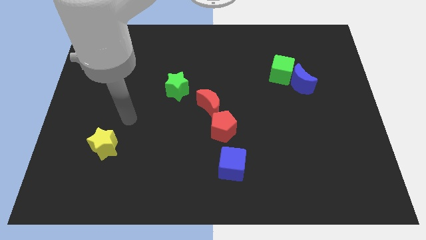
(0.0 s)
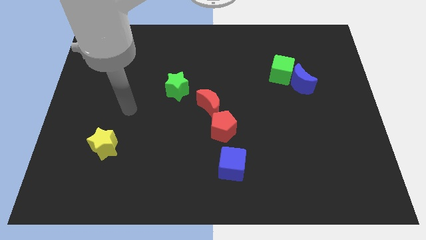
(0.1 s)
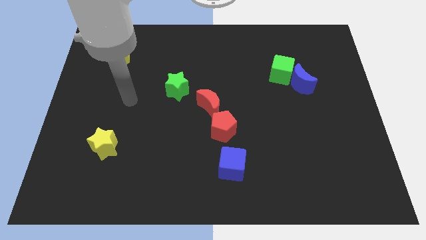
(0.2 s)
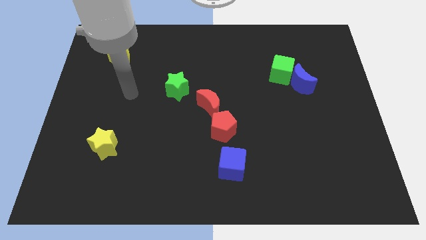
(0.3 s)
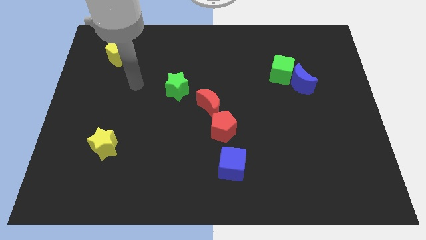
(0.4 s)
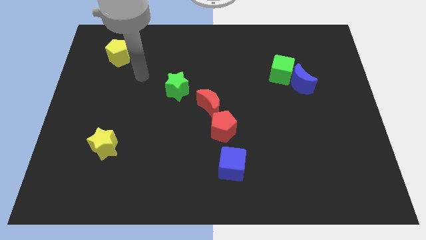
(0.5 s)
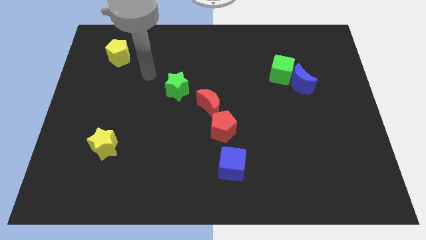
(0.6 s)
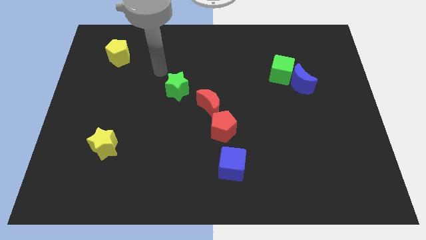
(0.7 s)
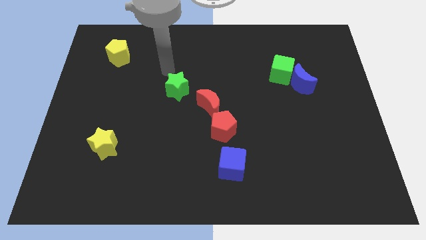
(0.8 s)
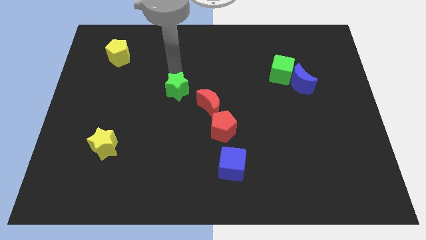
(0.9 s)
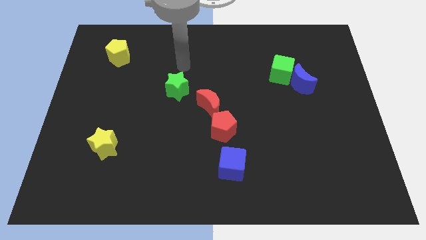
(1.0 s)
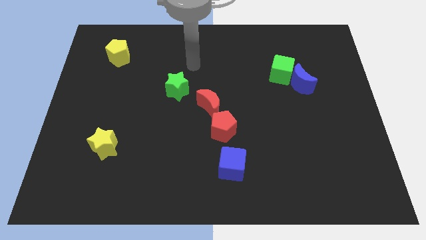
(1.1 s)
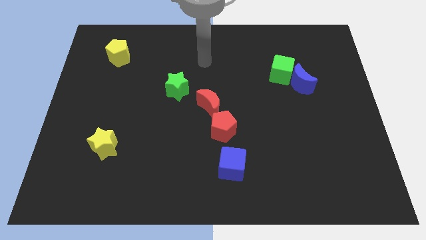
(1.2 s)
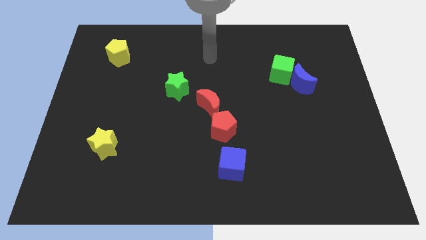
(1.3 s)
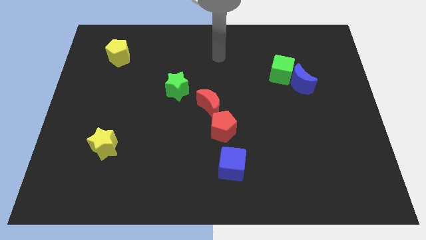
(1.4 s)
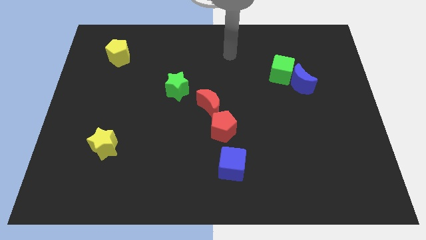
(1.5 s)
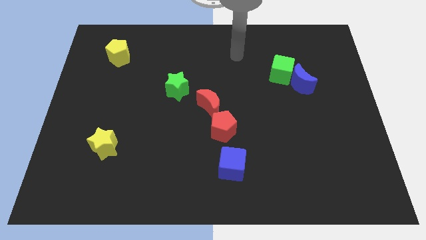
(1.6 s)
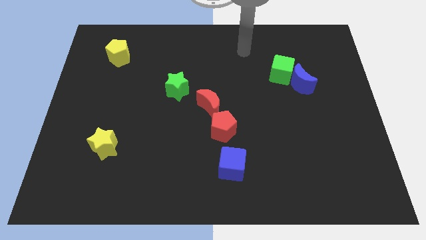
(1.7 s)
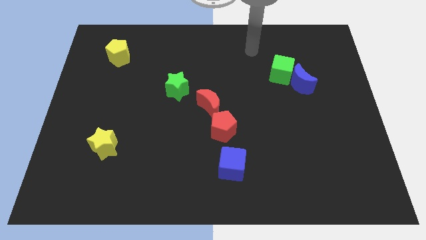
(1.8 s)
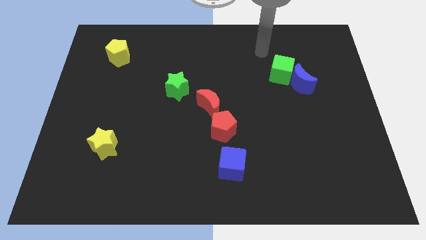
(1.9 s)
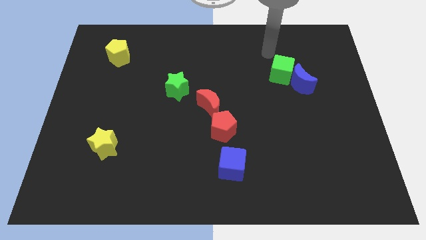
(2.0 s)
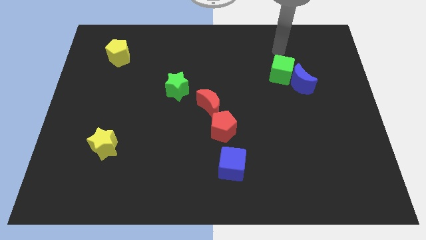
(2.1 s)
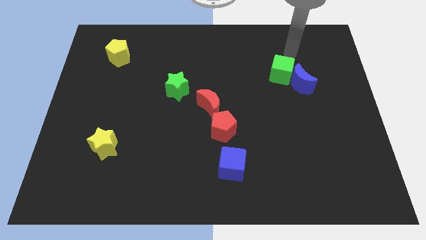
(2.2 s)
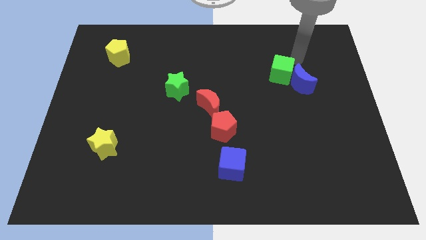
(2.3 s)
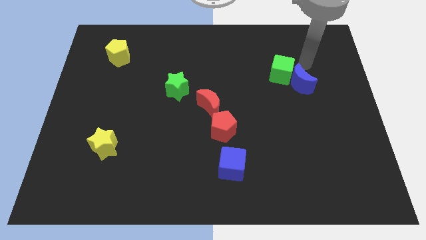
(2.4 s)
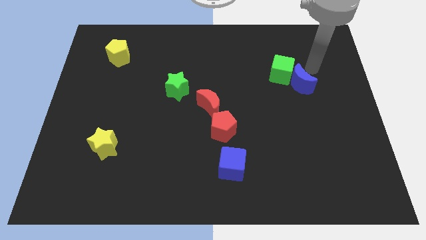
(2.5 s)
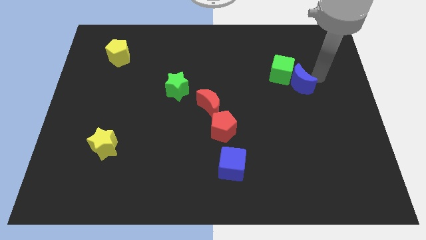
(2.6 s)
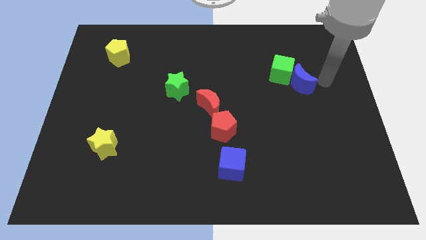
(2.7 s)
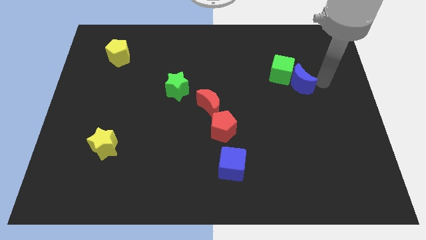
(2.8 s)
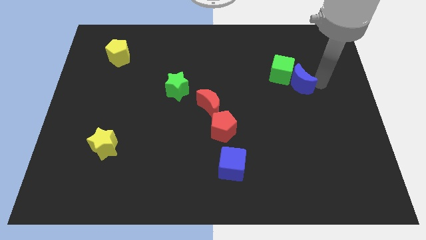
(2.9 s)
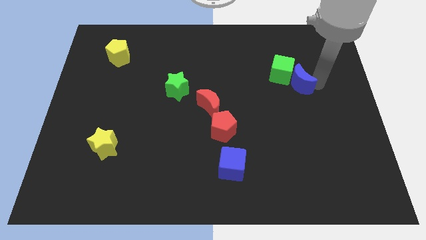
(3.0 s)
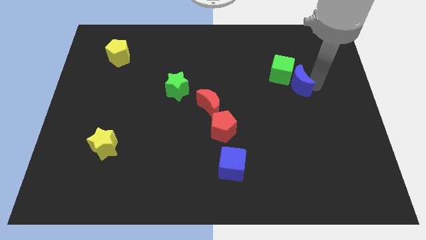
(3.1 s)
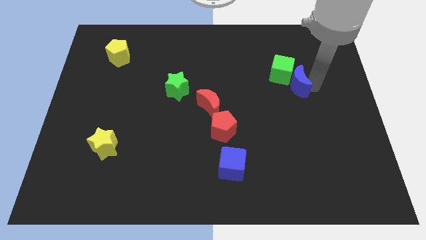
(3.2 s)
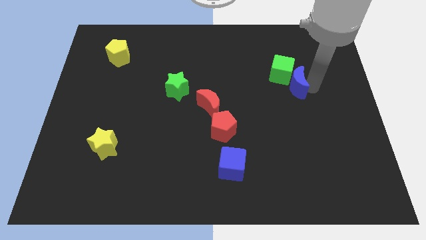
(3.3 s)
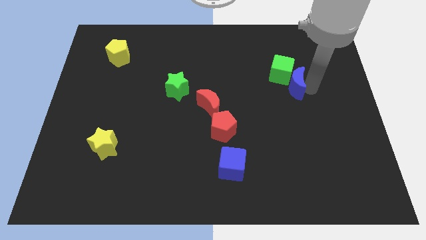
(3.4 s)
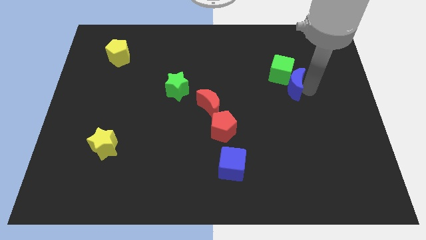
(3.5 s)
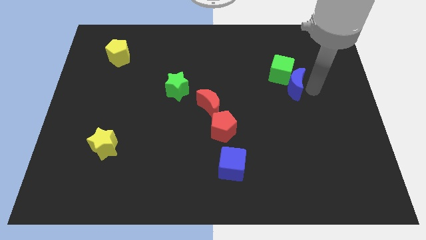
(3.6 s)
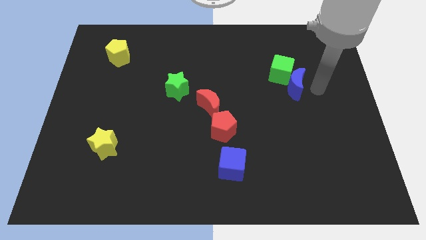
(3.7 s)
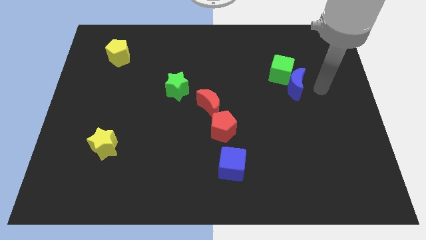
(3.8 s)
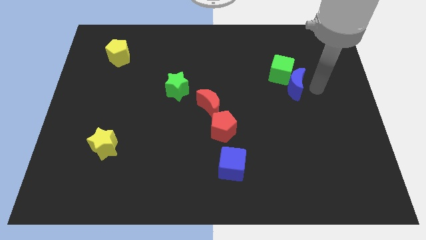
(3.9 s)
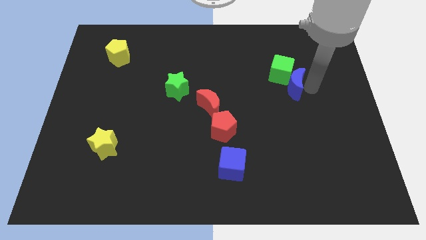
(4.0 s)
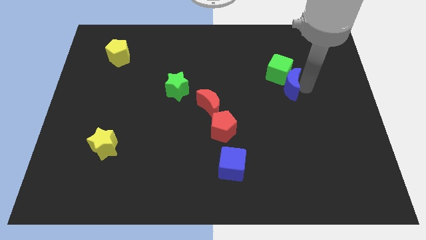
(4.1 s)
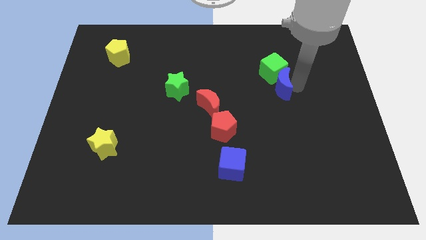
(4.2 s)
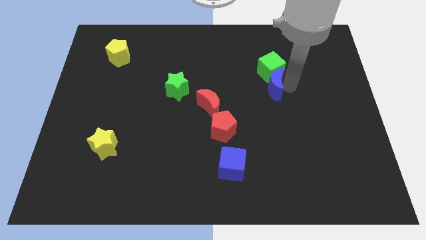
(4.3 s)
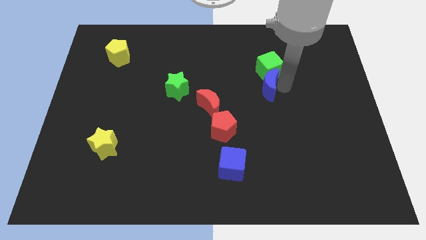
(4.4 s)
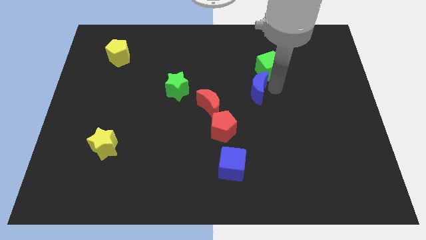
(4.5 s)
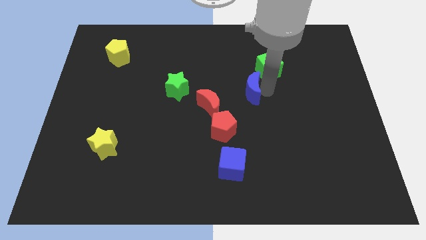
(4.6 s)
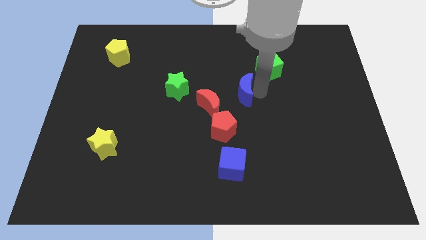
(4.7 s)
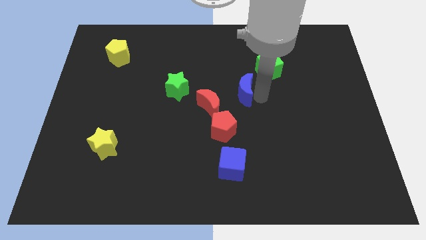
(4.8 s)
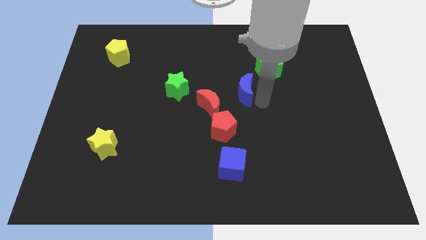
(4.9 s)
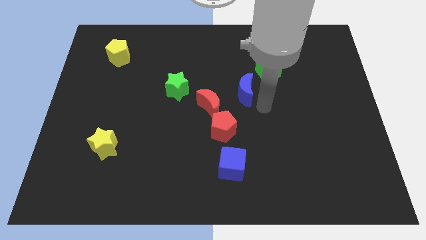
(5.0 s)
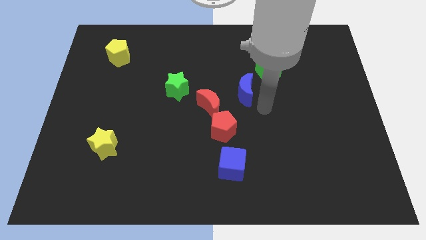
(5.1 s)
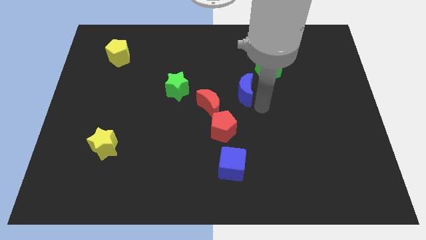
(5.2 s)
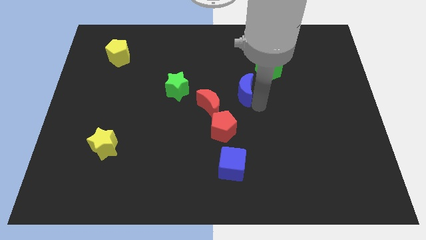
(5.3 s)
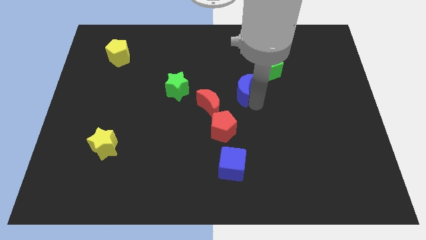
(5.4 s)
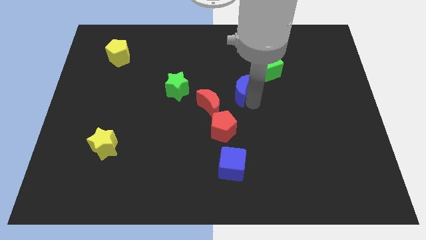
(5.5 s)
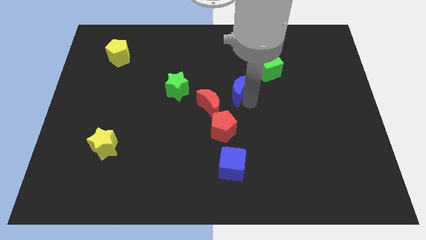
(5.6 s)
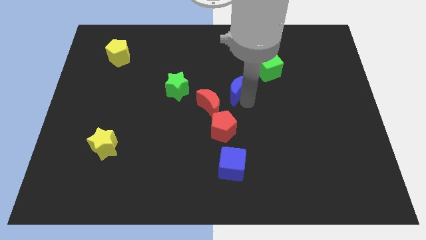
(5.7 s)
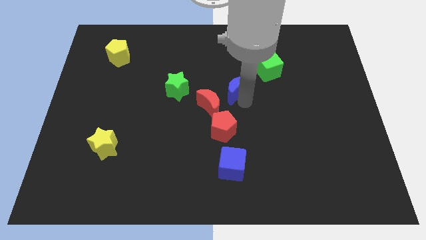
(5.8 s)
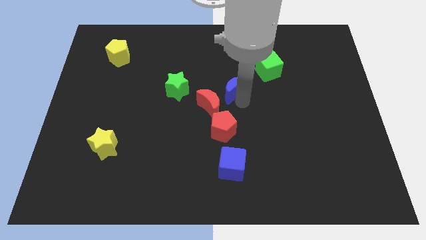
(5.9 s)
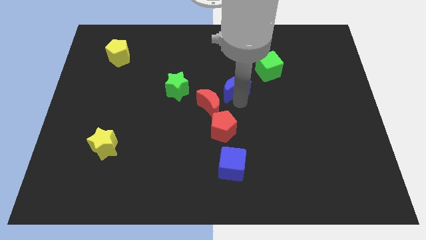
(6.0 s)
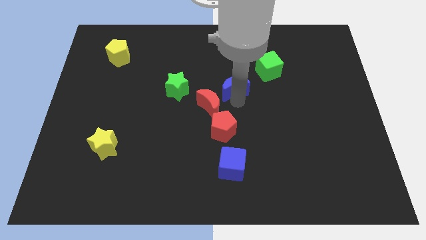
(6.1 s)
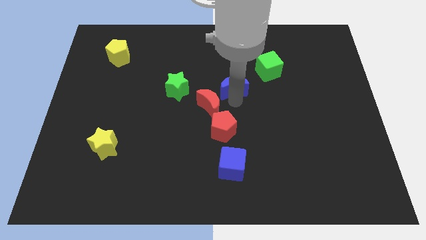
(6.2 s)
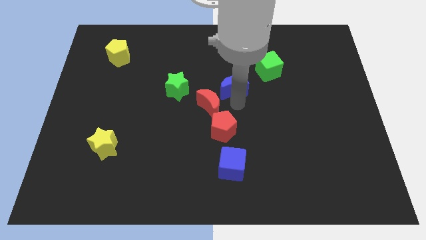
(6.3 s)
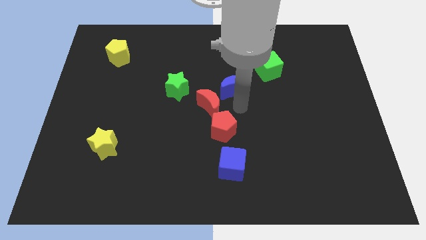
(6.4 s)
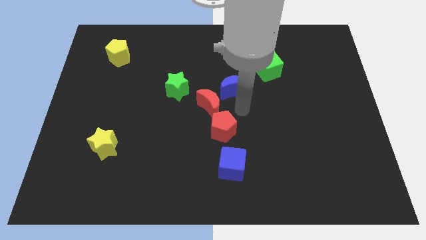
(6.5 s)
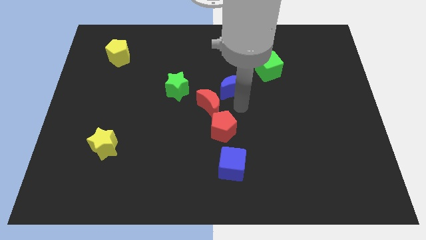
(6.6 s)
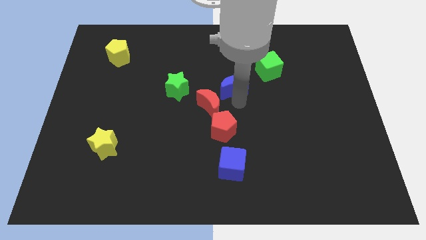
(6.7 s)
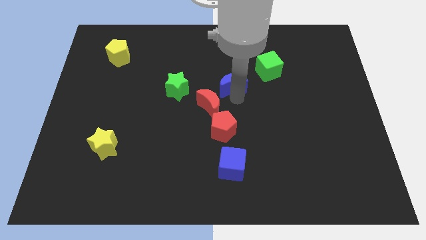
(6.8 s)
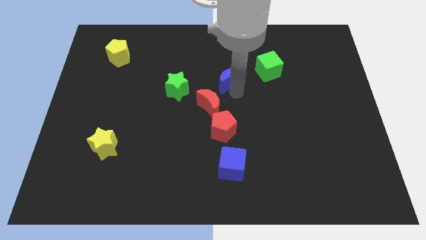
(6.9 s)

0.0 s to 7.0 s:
put the blue moon to the top side of the red moon
